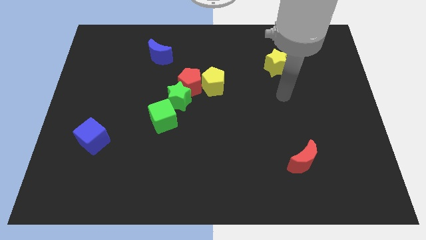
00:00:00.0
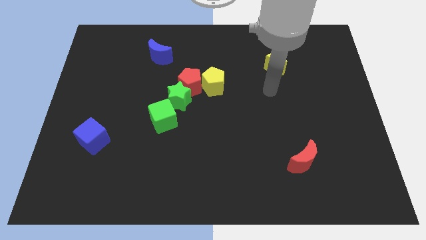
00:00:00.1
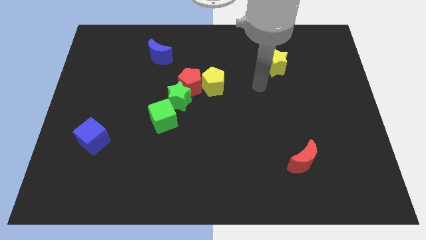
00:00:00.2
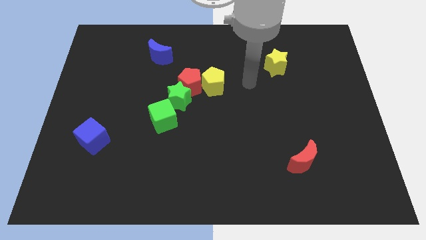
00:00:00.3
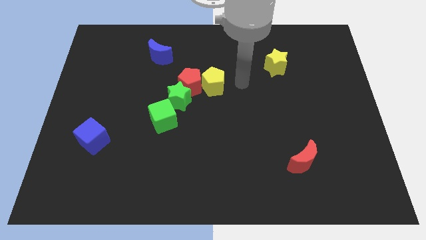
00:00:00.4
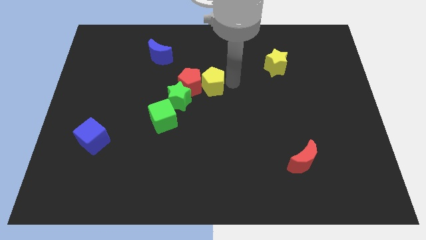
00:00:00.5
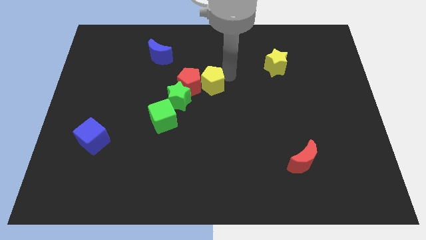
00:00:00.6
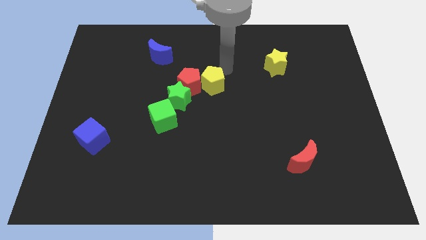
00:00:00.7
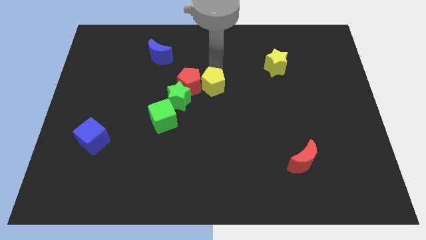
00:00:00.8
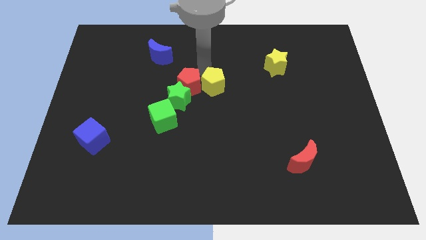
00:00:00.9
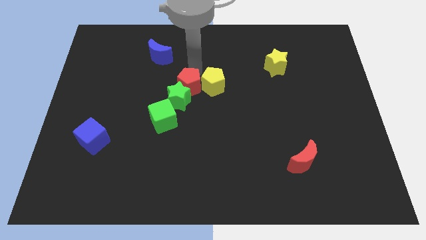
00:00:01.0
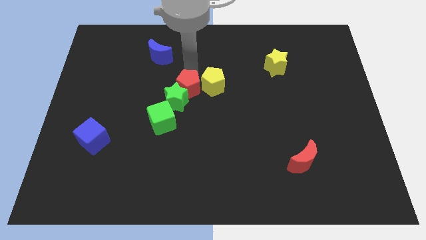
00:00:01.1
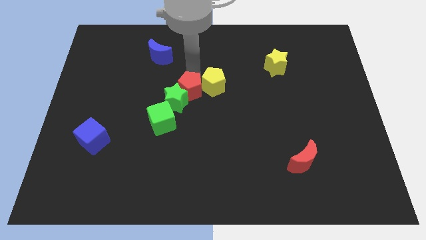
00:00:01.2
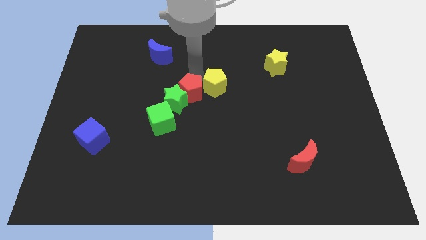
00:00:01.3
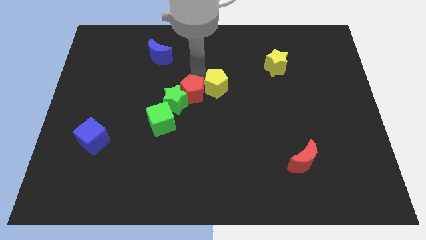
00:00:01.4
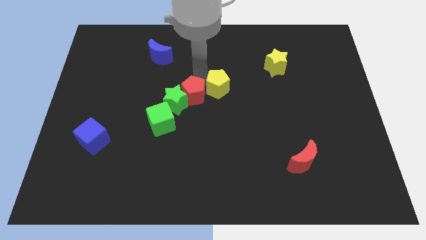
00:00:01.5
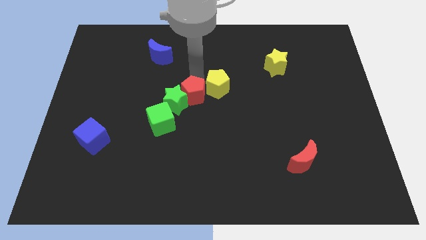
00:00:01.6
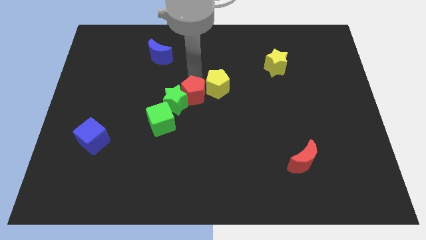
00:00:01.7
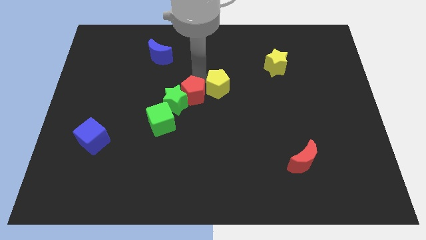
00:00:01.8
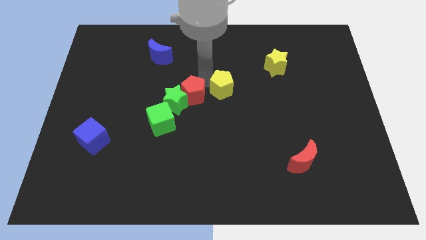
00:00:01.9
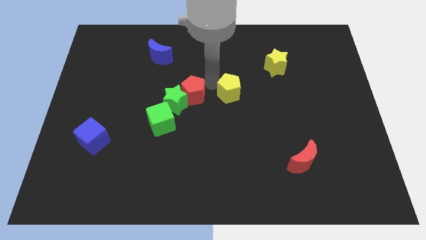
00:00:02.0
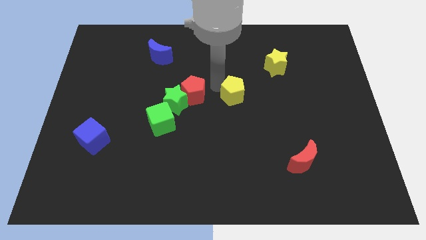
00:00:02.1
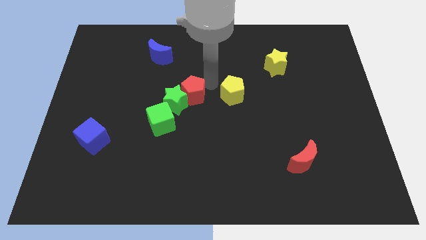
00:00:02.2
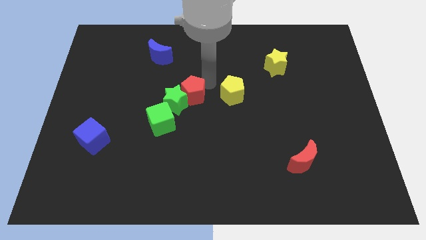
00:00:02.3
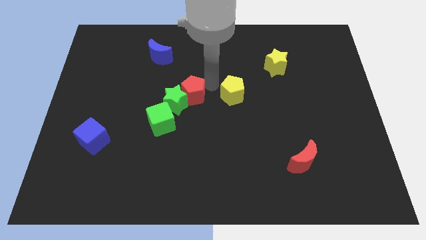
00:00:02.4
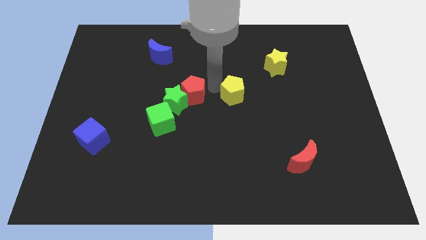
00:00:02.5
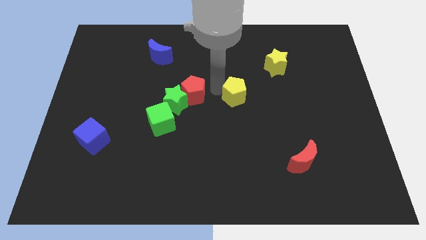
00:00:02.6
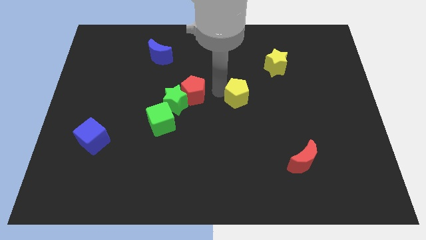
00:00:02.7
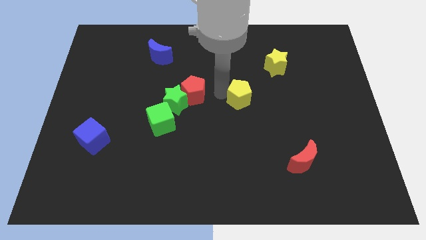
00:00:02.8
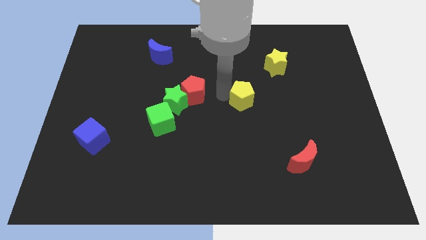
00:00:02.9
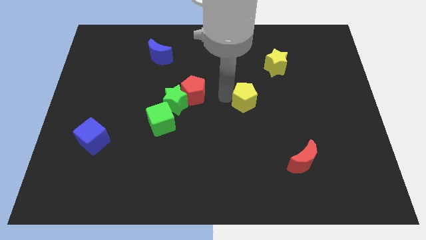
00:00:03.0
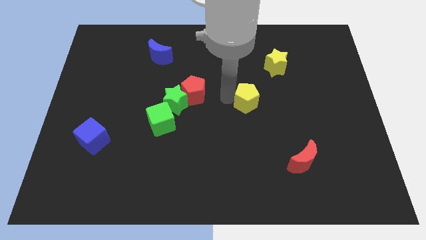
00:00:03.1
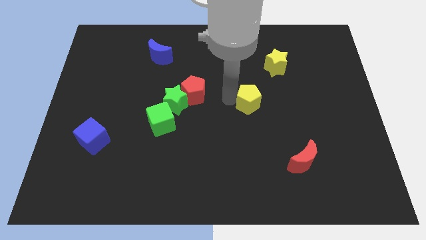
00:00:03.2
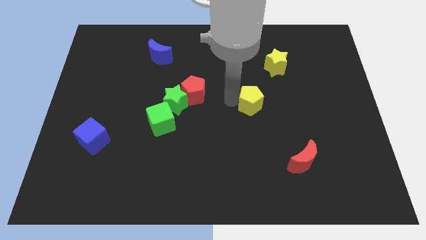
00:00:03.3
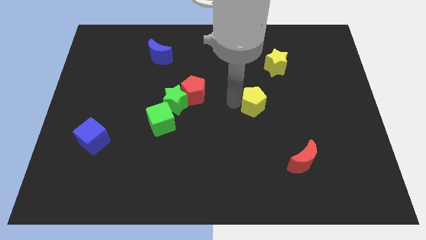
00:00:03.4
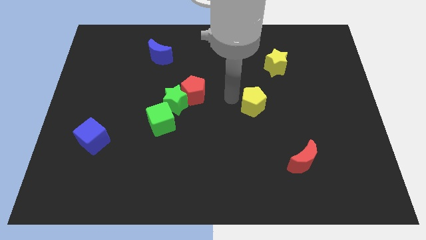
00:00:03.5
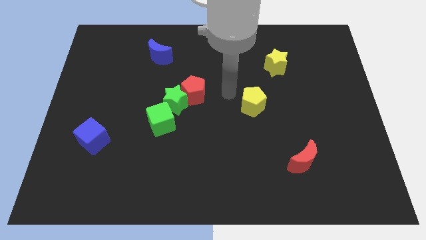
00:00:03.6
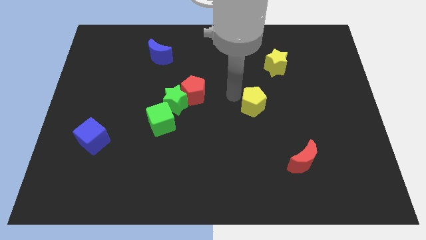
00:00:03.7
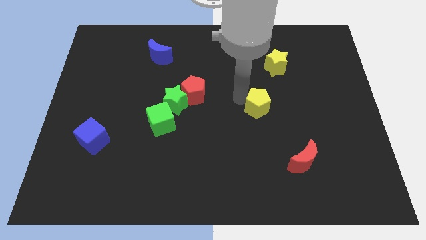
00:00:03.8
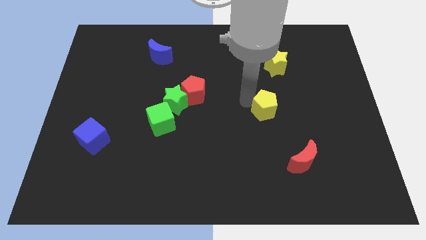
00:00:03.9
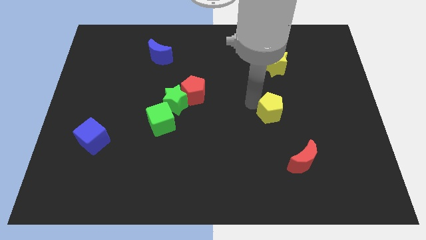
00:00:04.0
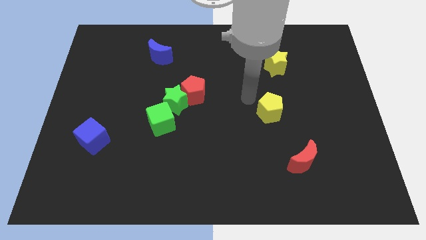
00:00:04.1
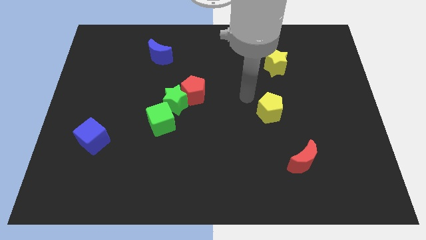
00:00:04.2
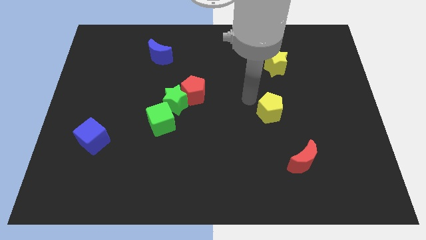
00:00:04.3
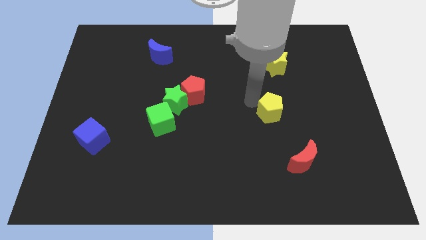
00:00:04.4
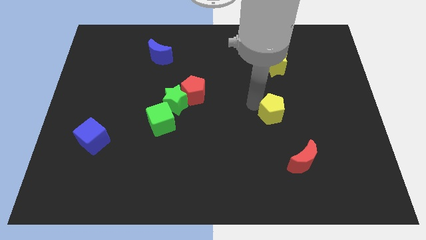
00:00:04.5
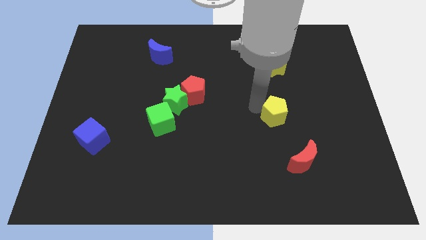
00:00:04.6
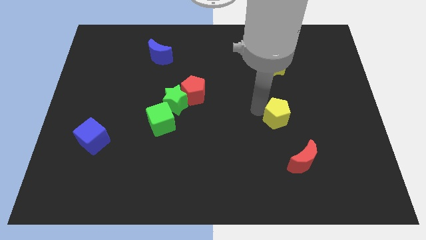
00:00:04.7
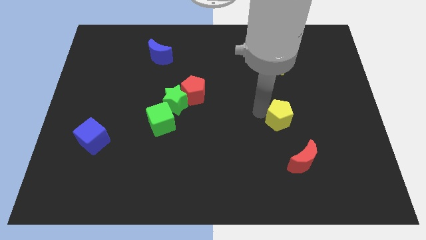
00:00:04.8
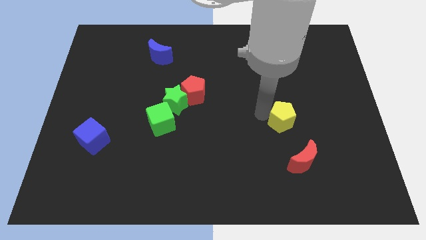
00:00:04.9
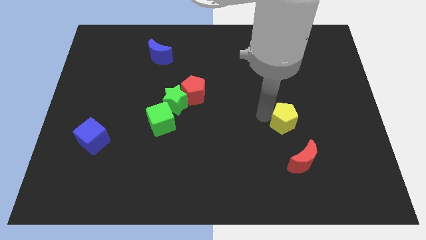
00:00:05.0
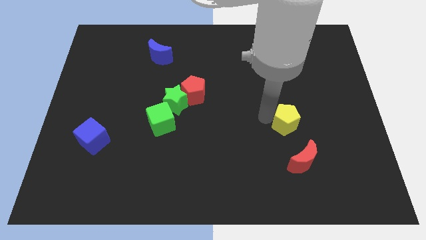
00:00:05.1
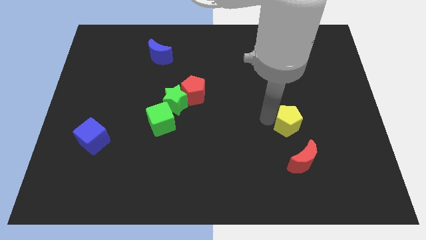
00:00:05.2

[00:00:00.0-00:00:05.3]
slide the yellow pentagon down and to the right

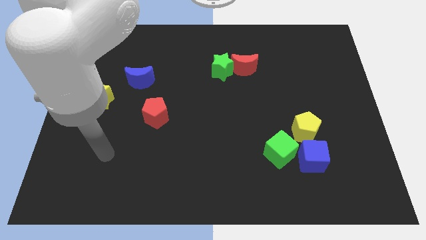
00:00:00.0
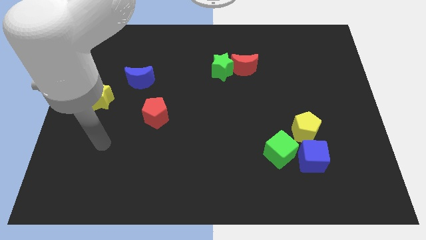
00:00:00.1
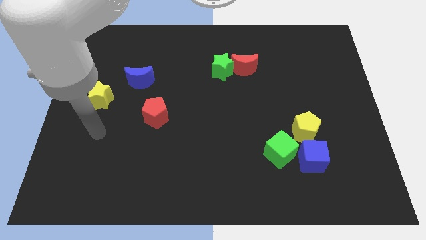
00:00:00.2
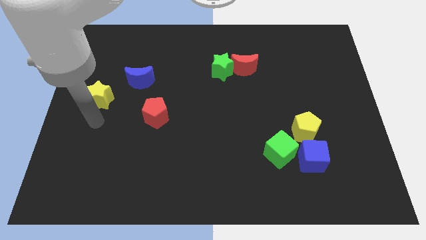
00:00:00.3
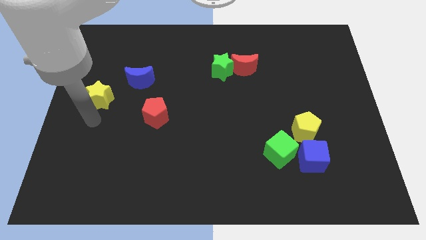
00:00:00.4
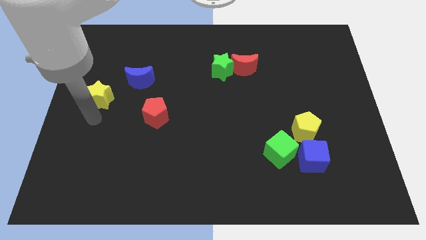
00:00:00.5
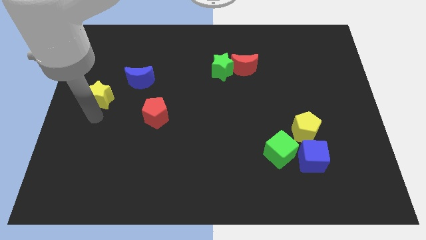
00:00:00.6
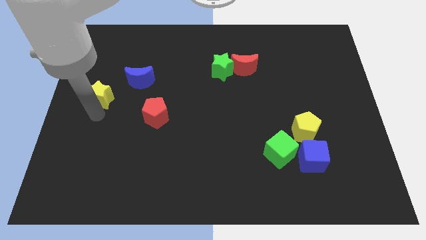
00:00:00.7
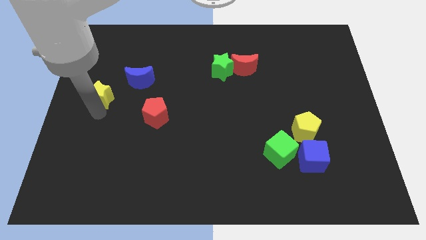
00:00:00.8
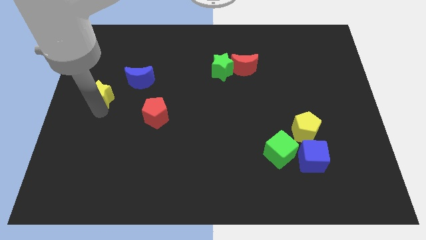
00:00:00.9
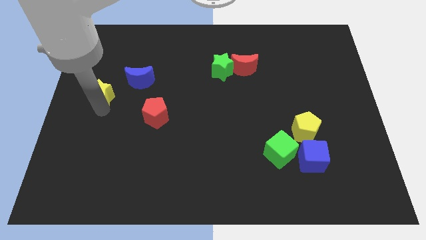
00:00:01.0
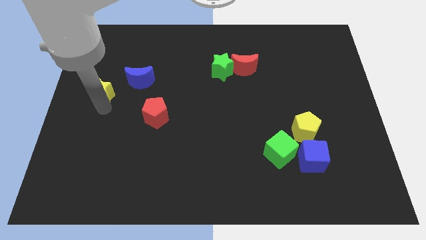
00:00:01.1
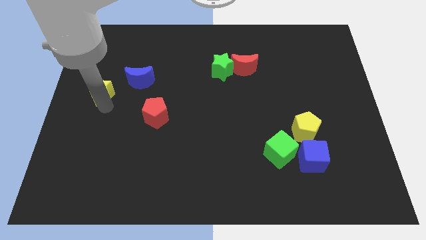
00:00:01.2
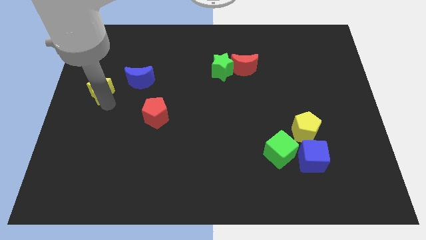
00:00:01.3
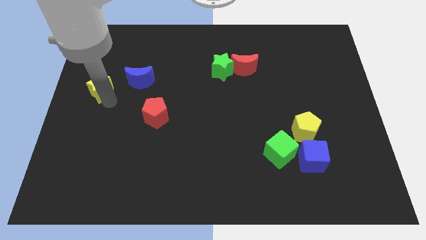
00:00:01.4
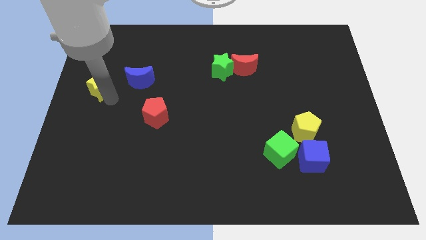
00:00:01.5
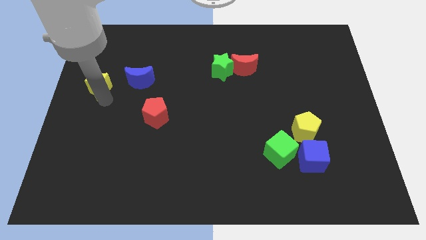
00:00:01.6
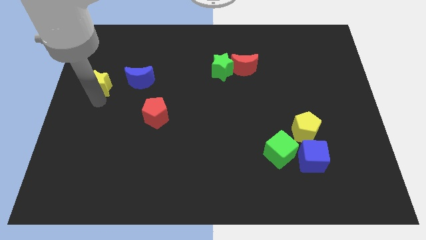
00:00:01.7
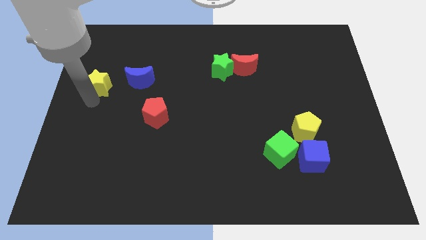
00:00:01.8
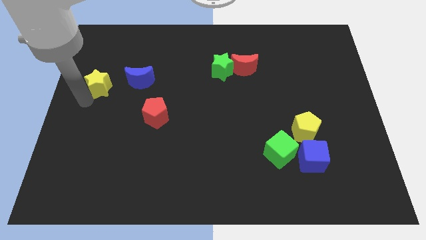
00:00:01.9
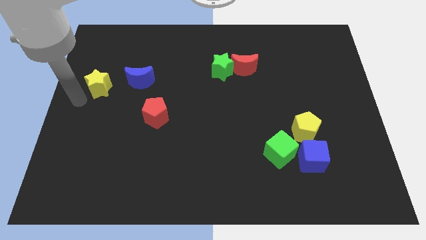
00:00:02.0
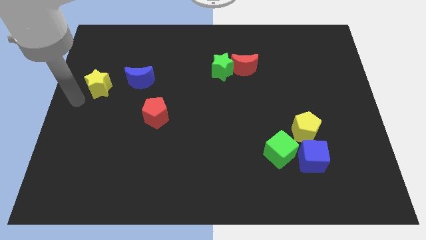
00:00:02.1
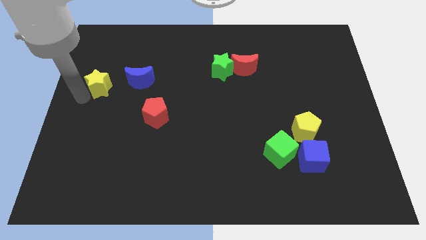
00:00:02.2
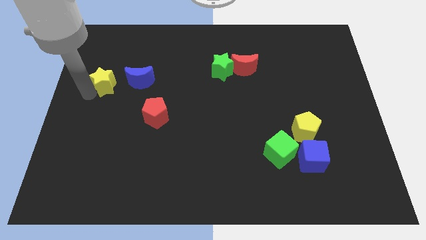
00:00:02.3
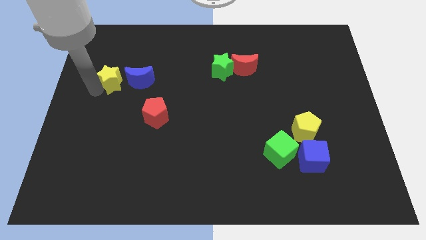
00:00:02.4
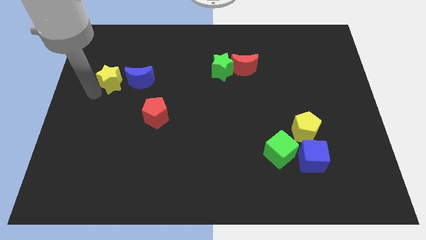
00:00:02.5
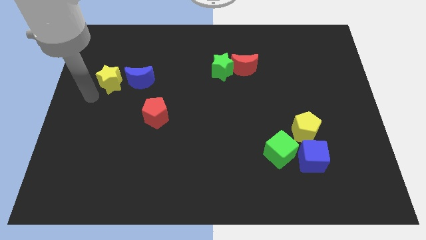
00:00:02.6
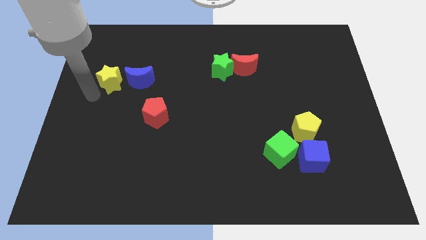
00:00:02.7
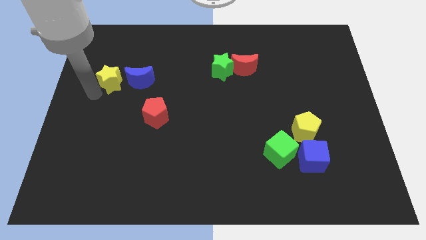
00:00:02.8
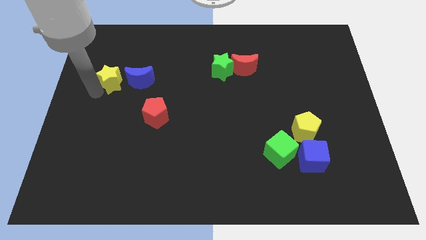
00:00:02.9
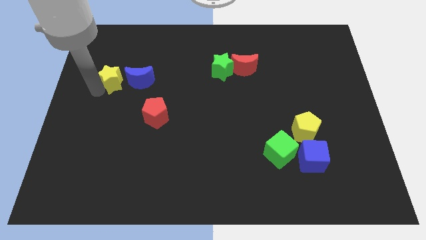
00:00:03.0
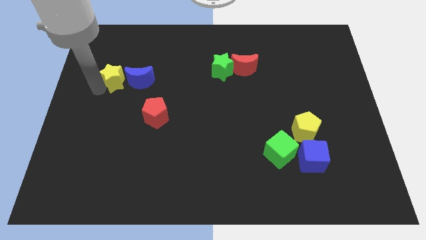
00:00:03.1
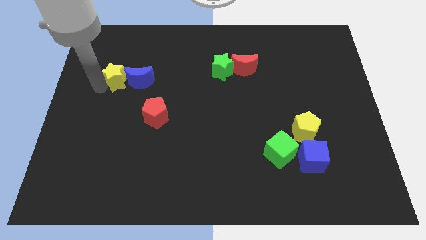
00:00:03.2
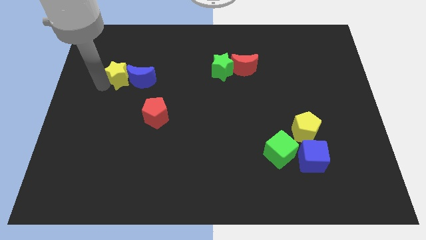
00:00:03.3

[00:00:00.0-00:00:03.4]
slide the yellow star a little bit diagonally up and right
